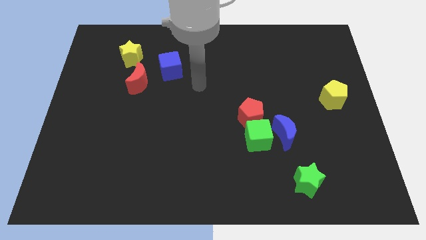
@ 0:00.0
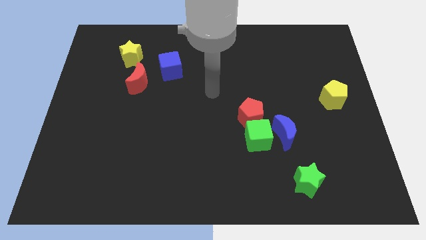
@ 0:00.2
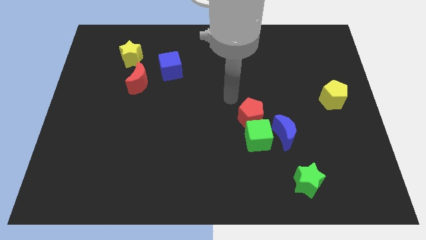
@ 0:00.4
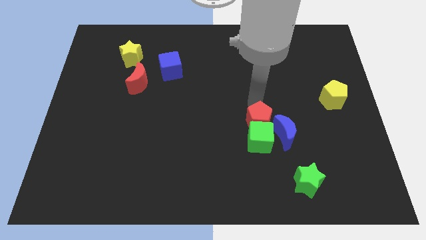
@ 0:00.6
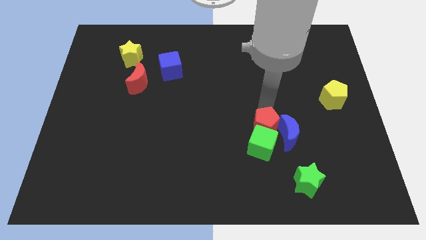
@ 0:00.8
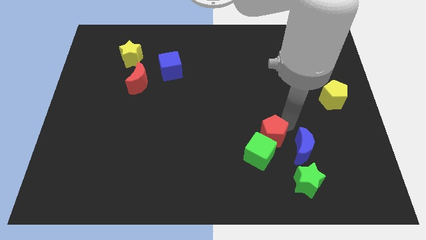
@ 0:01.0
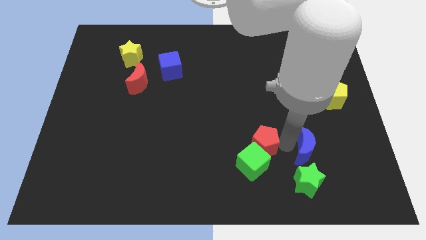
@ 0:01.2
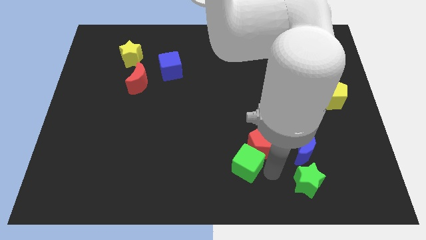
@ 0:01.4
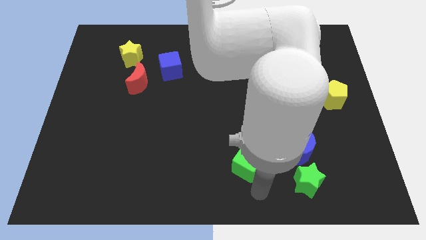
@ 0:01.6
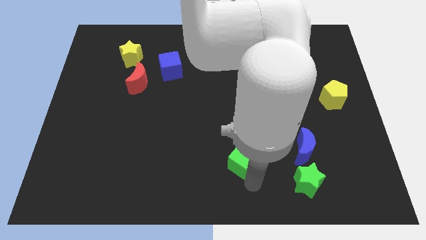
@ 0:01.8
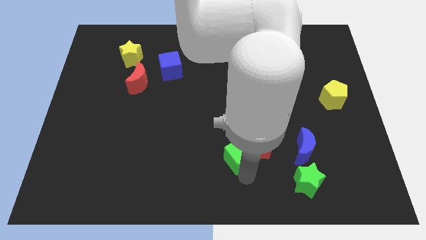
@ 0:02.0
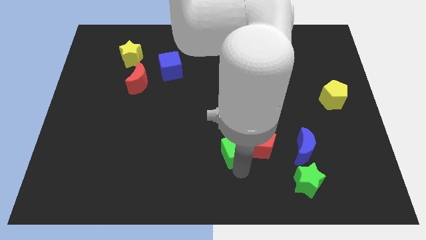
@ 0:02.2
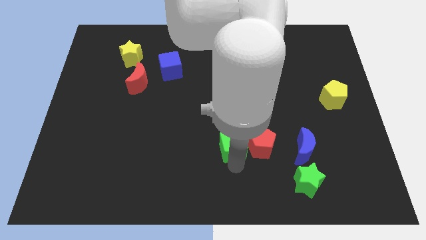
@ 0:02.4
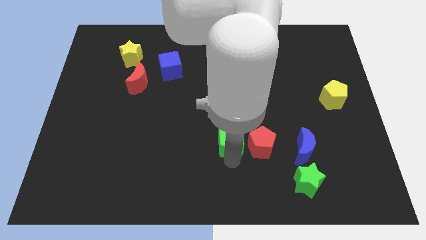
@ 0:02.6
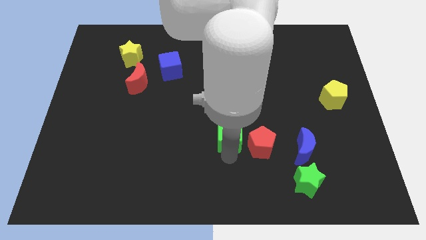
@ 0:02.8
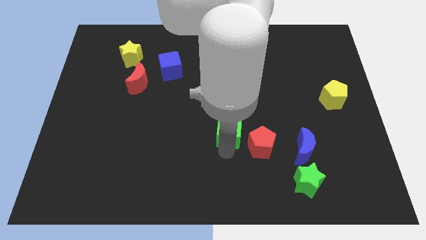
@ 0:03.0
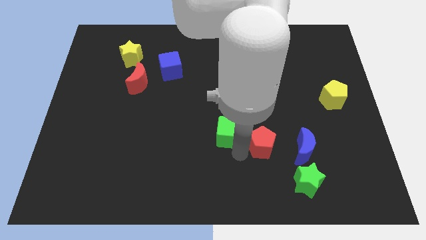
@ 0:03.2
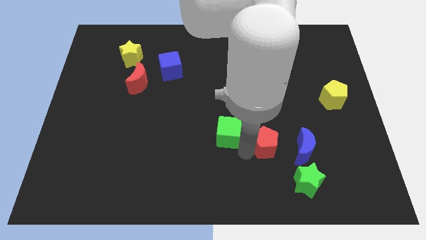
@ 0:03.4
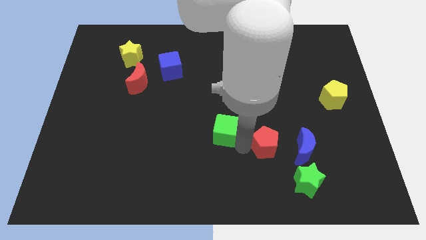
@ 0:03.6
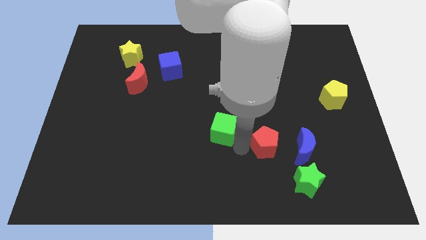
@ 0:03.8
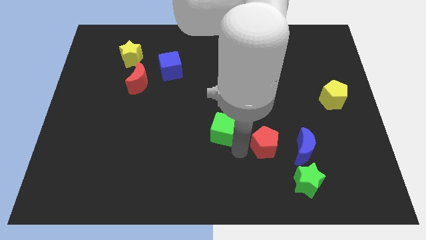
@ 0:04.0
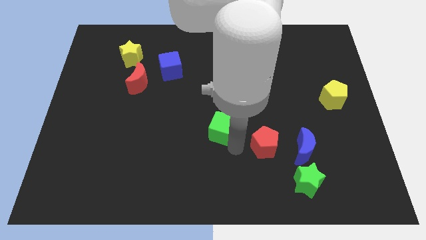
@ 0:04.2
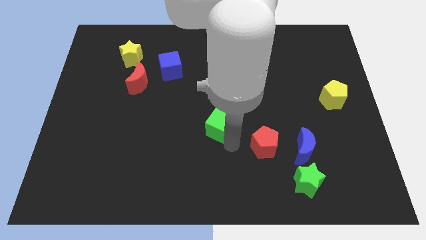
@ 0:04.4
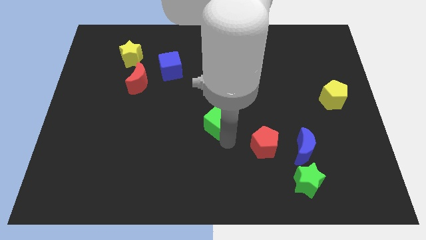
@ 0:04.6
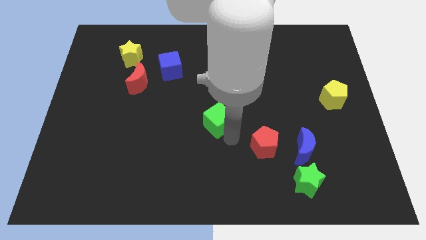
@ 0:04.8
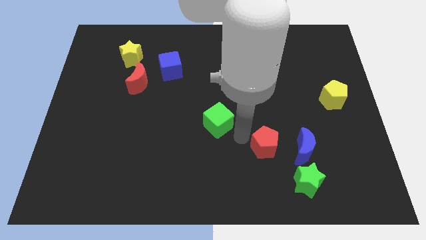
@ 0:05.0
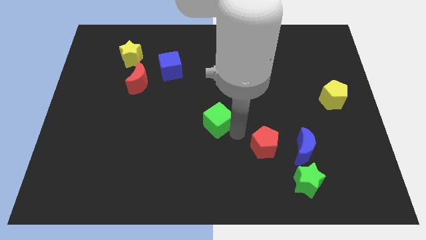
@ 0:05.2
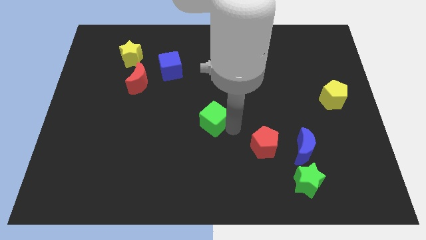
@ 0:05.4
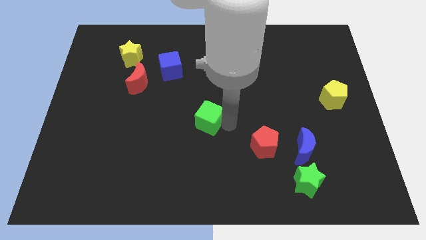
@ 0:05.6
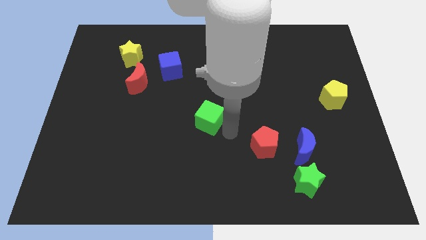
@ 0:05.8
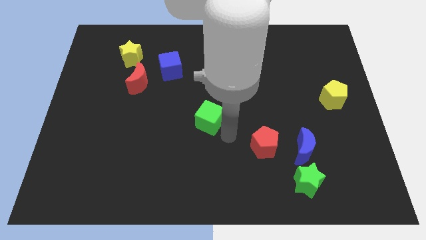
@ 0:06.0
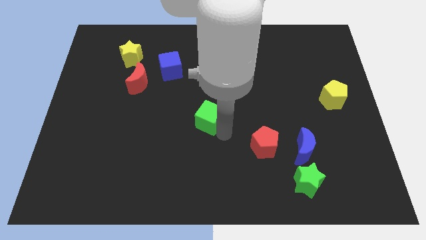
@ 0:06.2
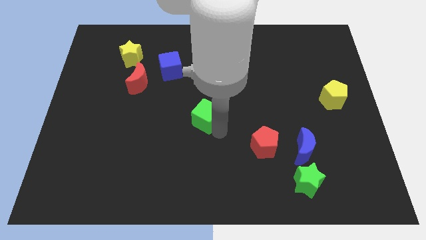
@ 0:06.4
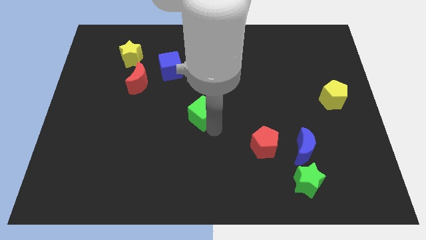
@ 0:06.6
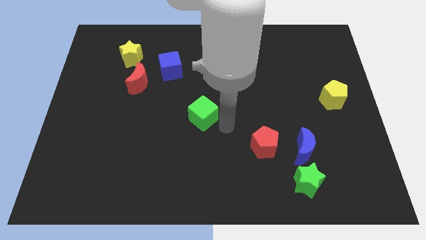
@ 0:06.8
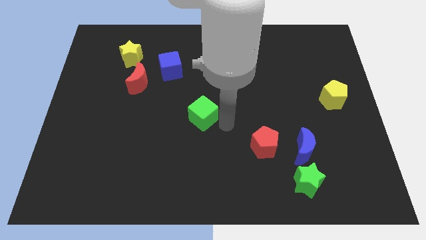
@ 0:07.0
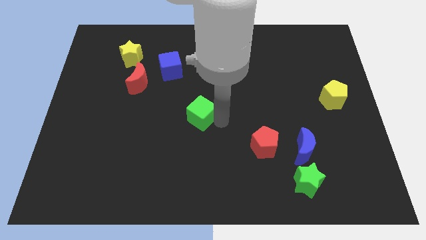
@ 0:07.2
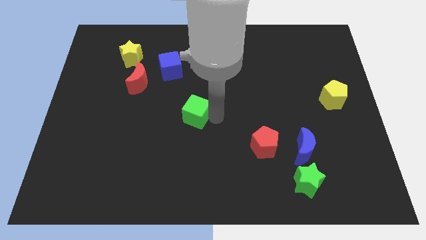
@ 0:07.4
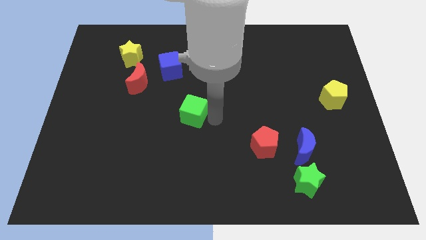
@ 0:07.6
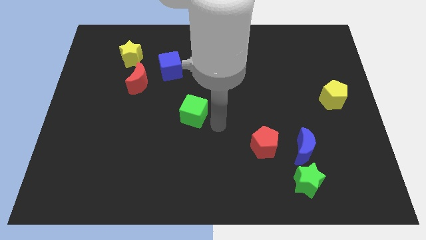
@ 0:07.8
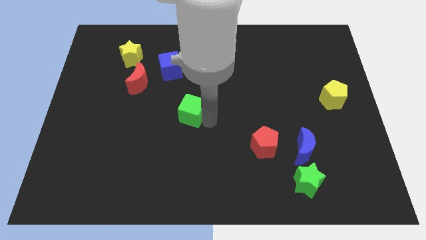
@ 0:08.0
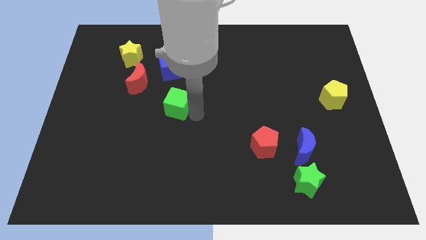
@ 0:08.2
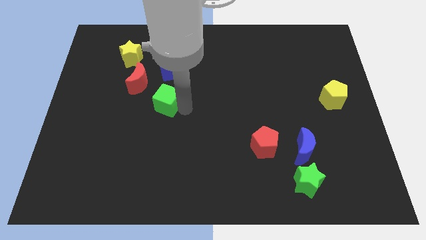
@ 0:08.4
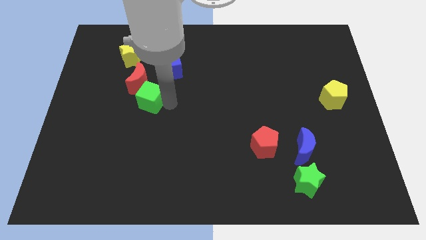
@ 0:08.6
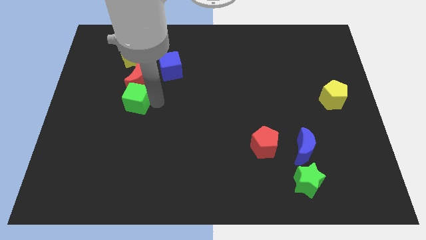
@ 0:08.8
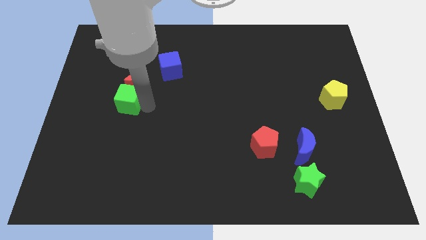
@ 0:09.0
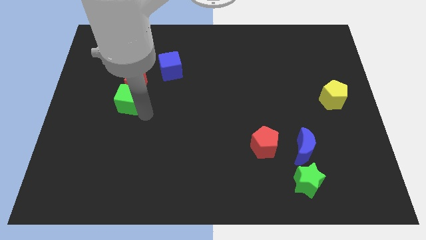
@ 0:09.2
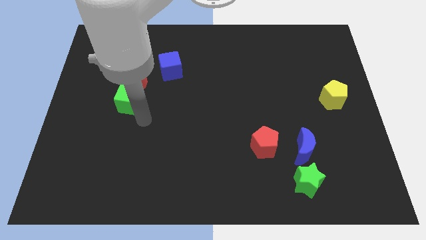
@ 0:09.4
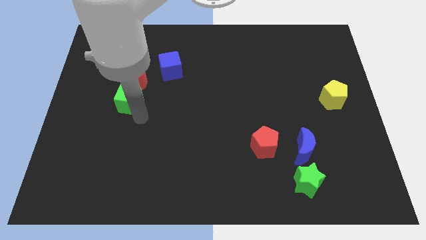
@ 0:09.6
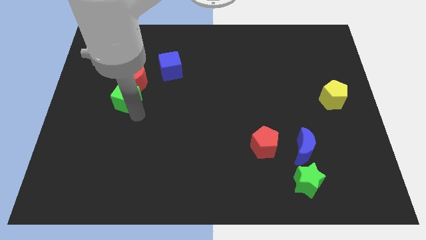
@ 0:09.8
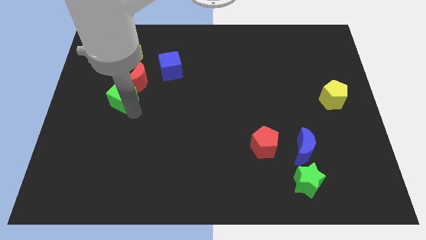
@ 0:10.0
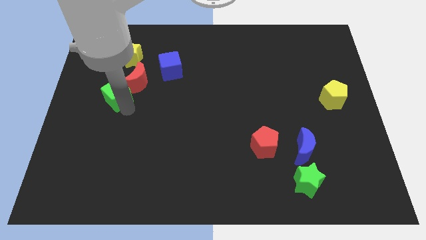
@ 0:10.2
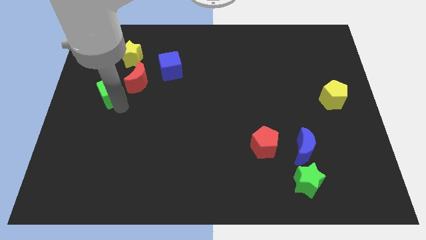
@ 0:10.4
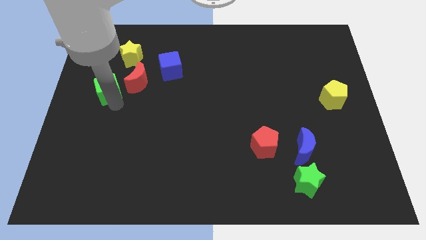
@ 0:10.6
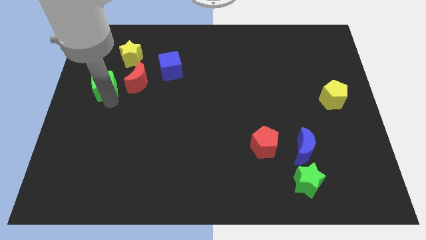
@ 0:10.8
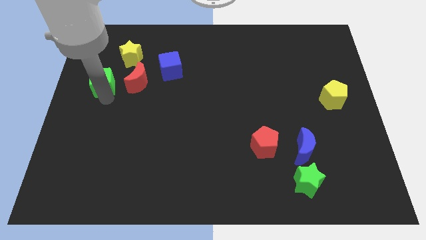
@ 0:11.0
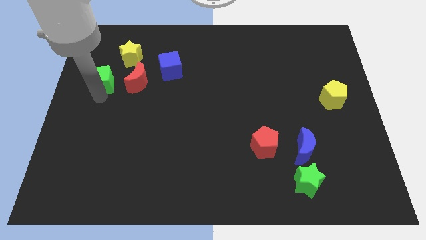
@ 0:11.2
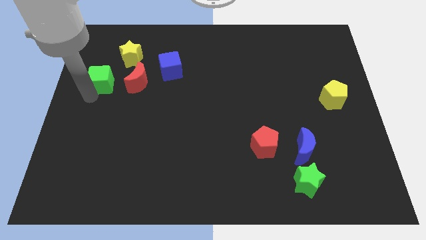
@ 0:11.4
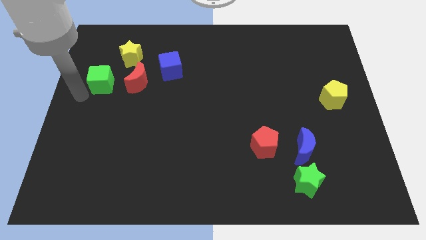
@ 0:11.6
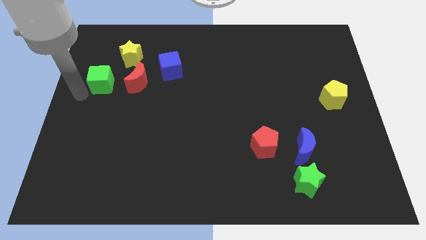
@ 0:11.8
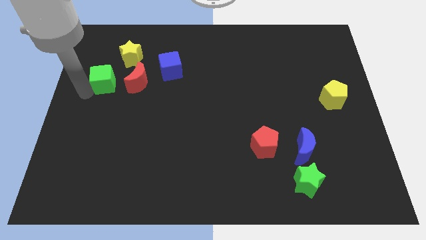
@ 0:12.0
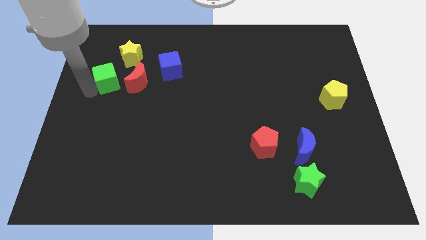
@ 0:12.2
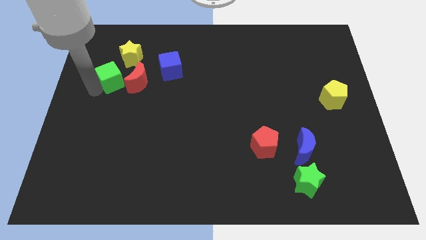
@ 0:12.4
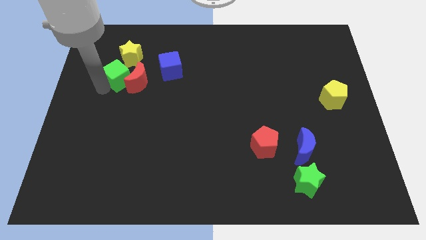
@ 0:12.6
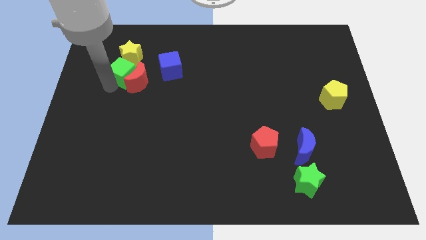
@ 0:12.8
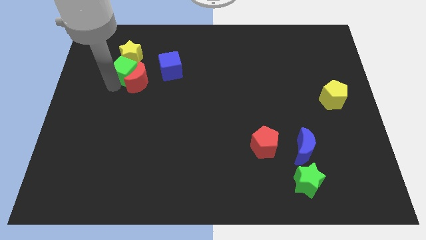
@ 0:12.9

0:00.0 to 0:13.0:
put the green cube next to the yellow star

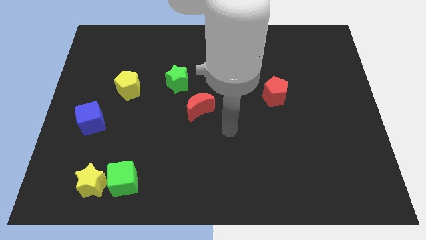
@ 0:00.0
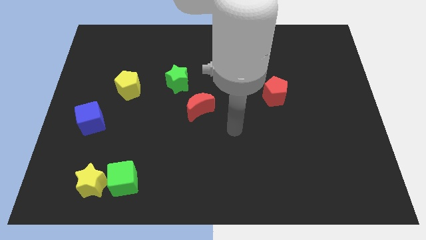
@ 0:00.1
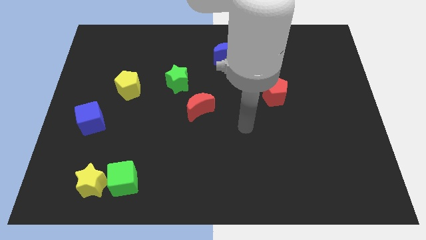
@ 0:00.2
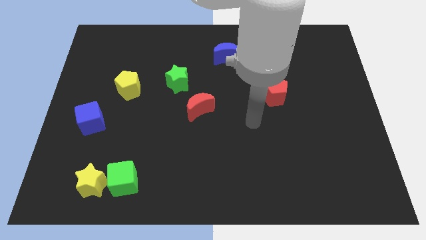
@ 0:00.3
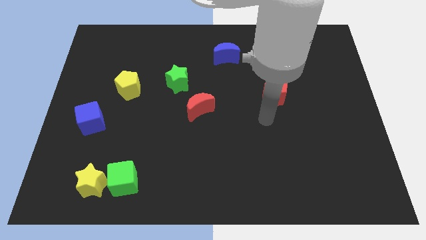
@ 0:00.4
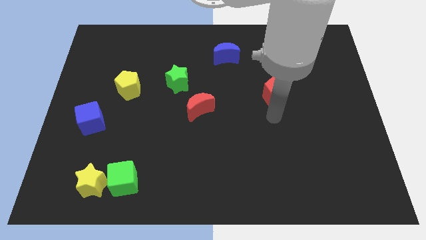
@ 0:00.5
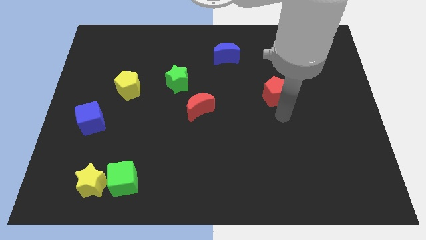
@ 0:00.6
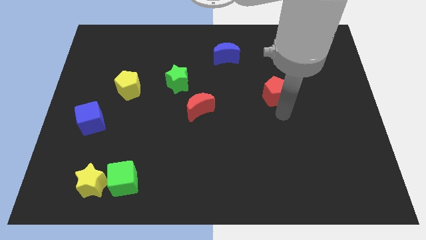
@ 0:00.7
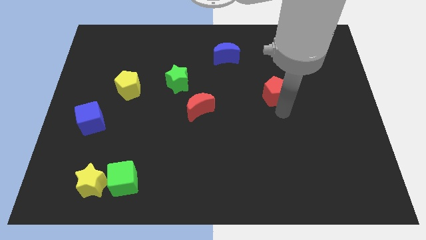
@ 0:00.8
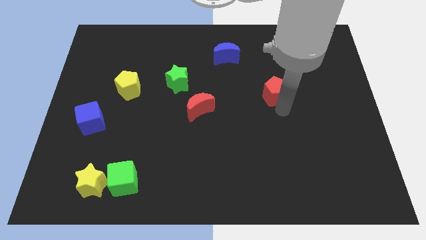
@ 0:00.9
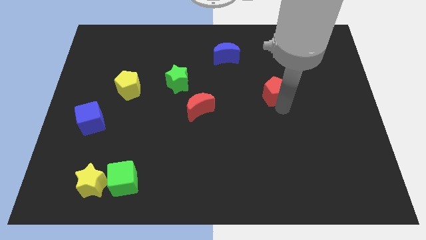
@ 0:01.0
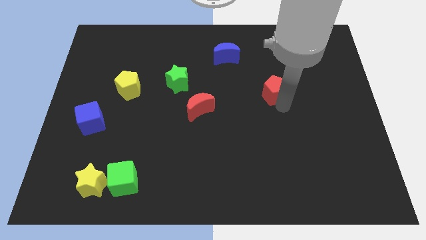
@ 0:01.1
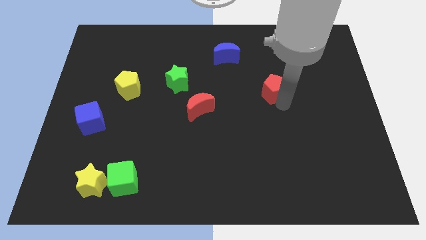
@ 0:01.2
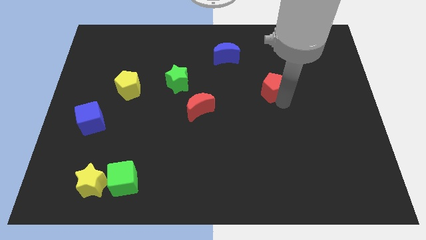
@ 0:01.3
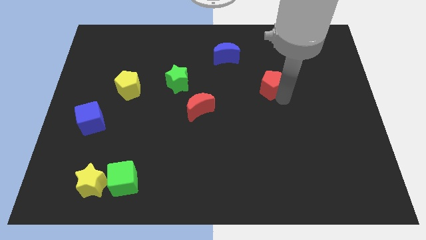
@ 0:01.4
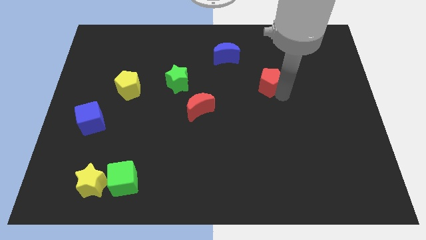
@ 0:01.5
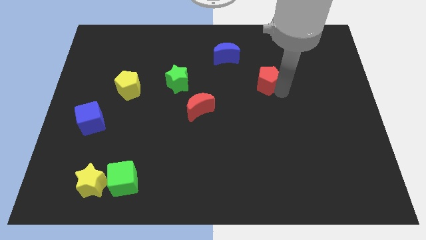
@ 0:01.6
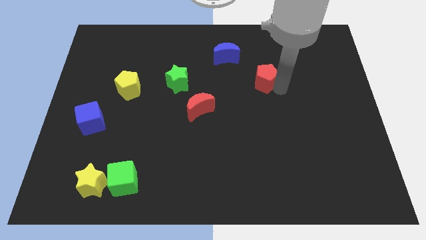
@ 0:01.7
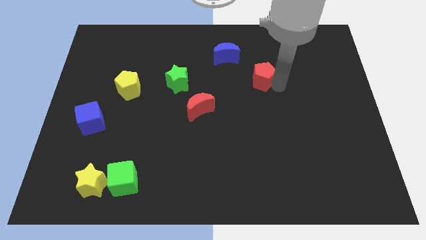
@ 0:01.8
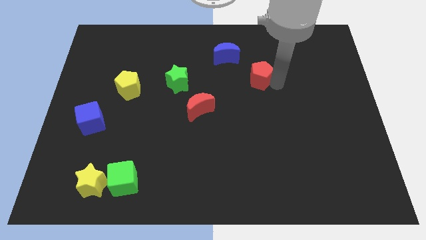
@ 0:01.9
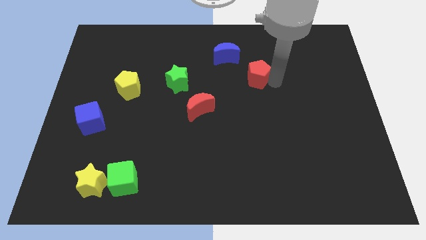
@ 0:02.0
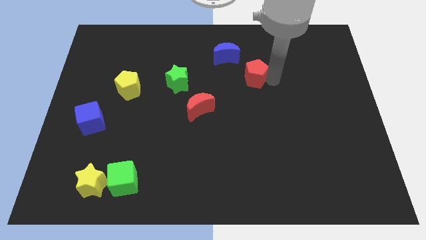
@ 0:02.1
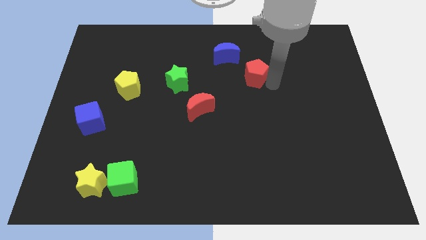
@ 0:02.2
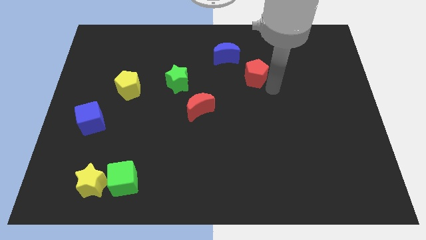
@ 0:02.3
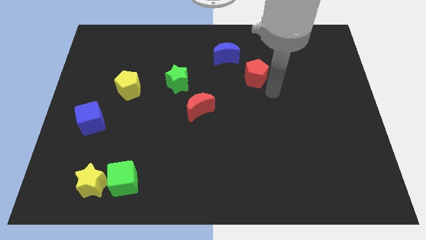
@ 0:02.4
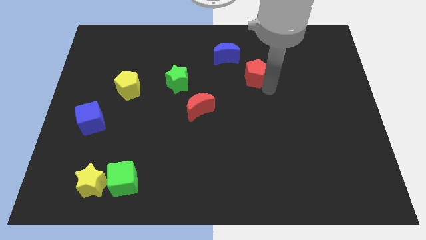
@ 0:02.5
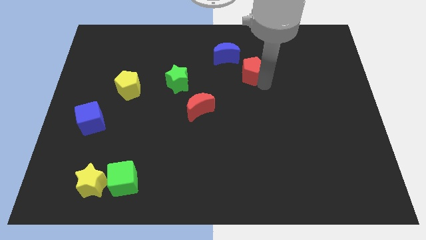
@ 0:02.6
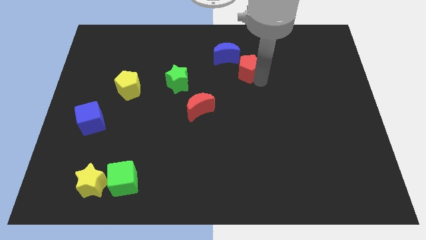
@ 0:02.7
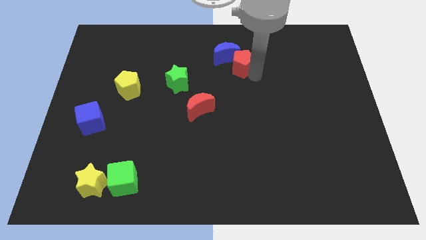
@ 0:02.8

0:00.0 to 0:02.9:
put the red pentagon to the blue moon
